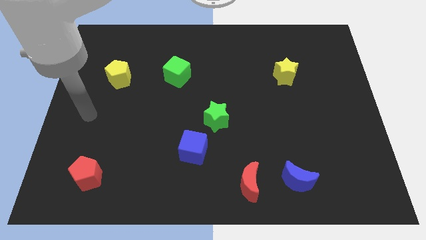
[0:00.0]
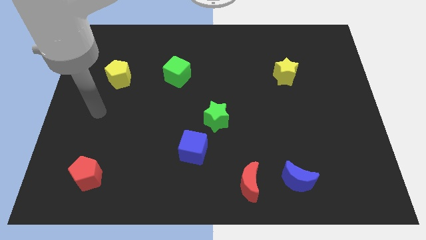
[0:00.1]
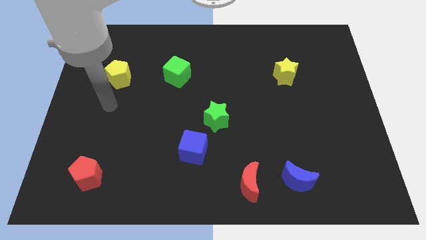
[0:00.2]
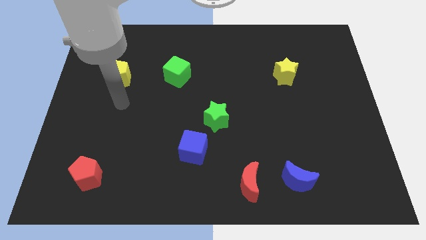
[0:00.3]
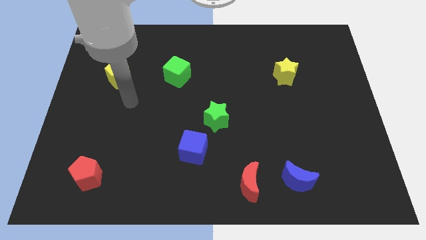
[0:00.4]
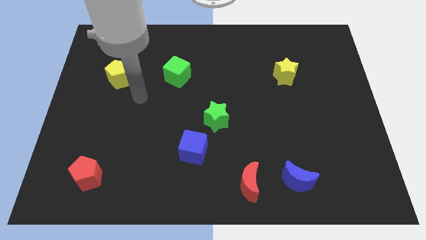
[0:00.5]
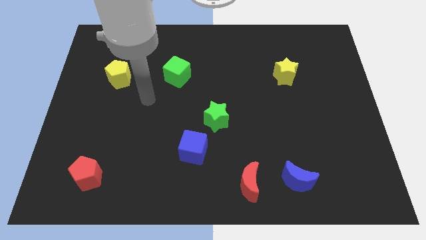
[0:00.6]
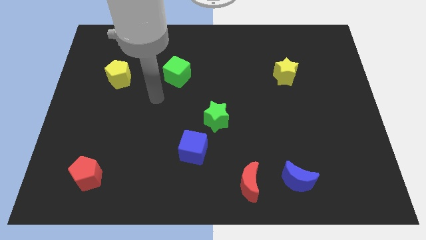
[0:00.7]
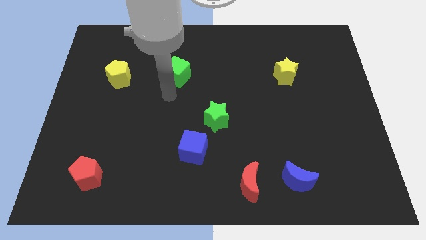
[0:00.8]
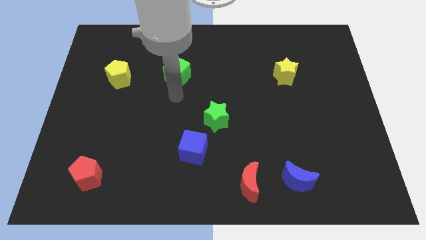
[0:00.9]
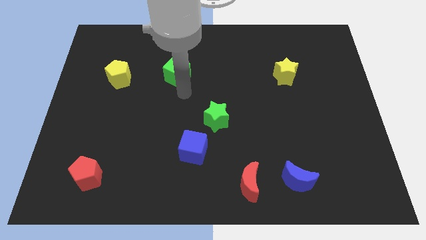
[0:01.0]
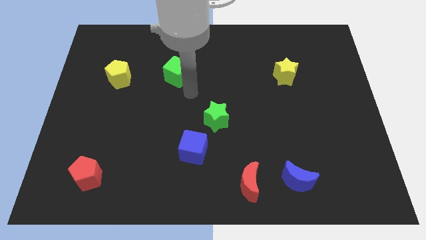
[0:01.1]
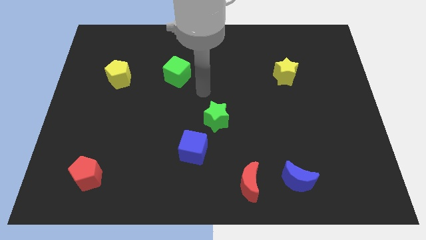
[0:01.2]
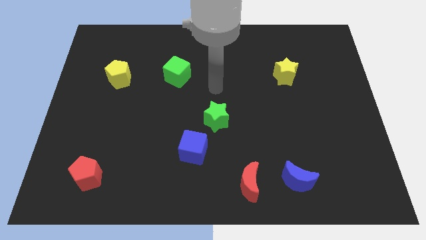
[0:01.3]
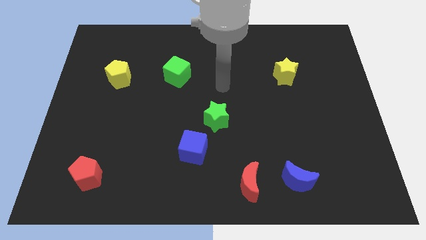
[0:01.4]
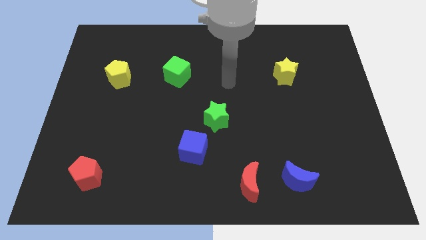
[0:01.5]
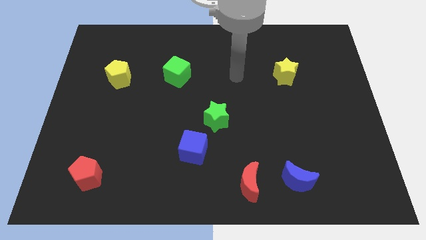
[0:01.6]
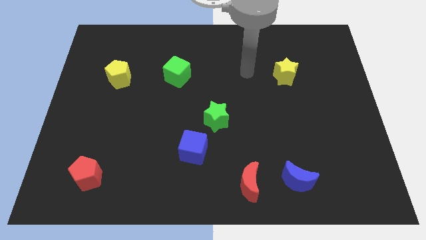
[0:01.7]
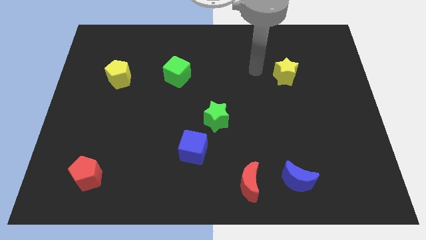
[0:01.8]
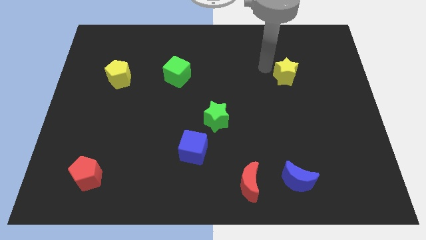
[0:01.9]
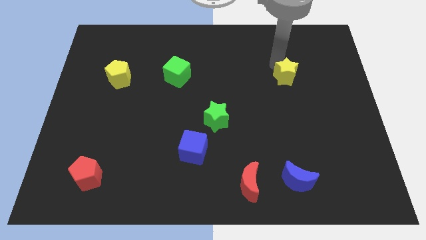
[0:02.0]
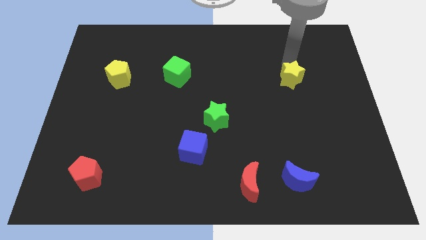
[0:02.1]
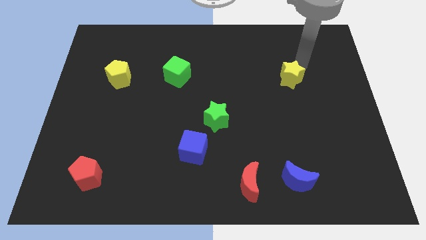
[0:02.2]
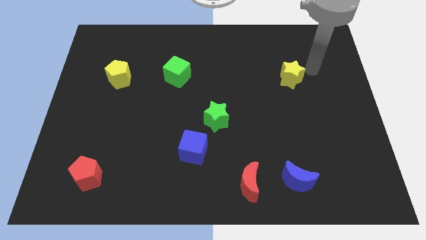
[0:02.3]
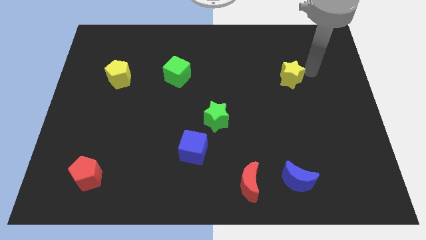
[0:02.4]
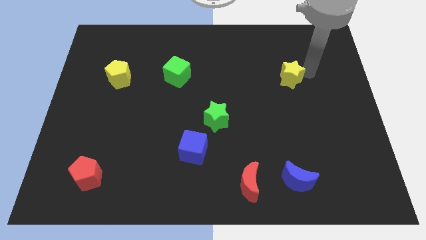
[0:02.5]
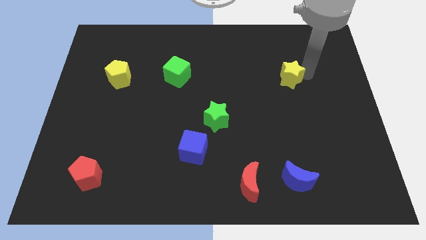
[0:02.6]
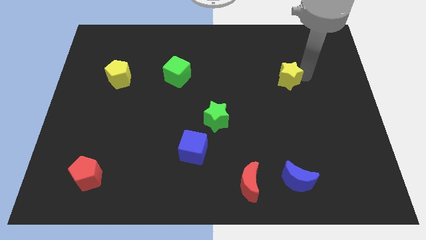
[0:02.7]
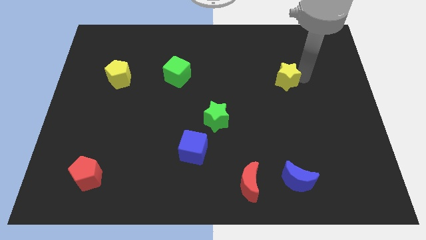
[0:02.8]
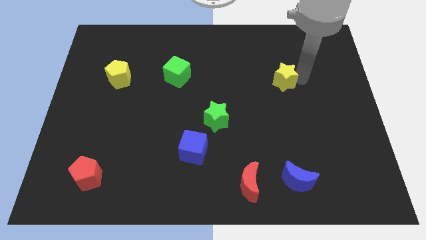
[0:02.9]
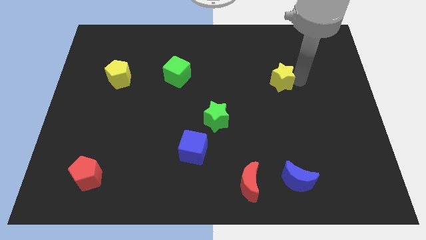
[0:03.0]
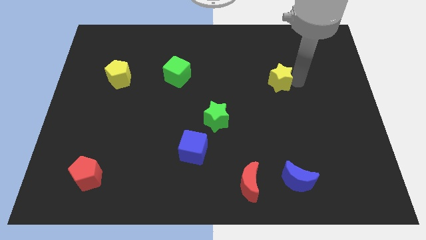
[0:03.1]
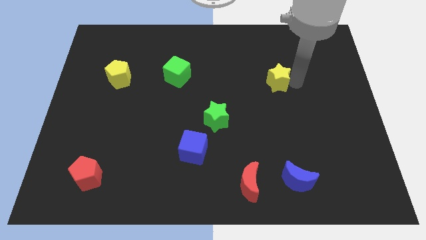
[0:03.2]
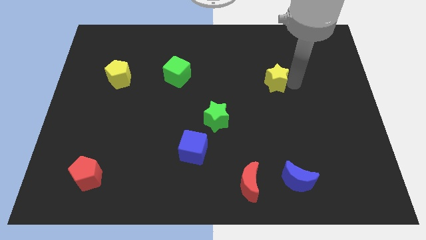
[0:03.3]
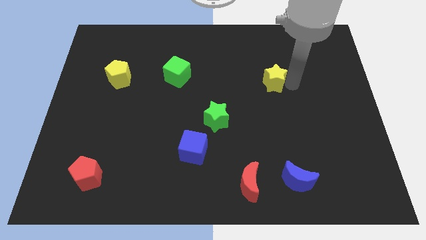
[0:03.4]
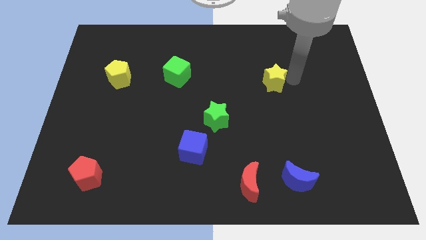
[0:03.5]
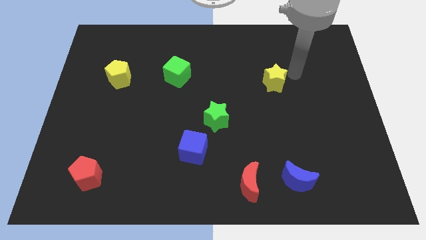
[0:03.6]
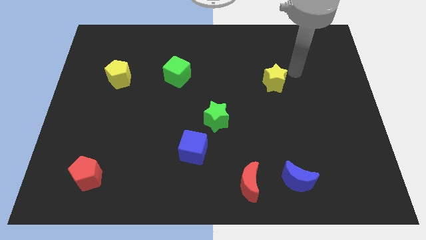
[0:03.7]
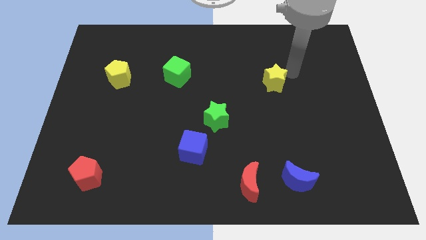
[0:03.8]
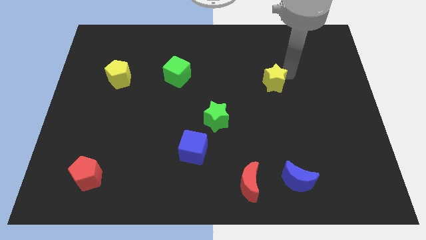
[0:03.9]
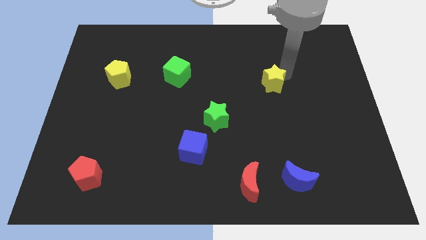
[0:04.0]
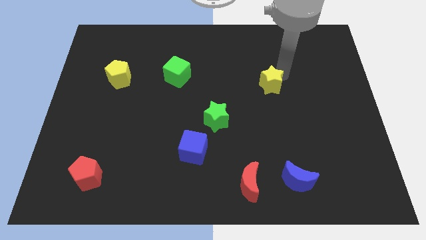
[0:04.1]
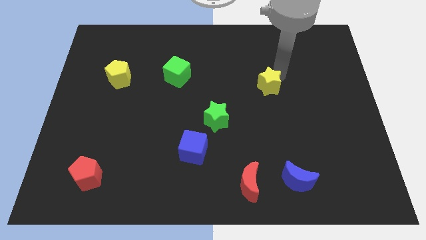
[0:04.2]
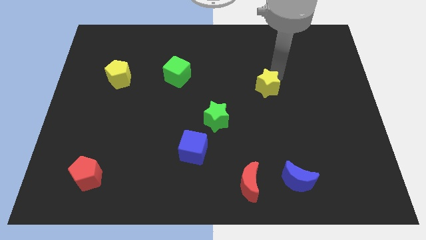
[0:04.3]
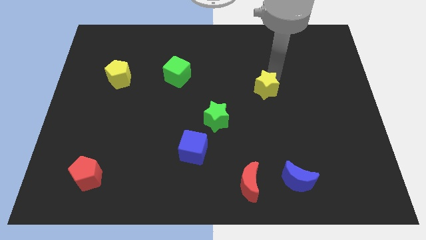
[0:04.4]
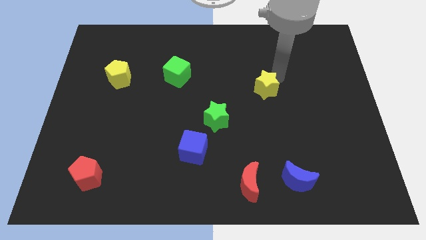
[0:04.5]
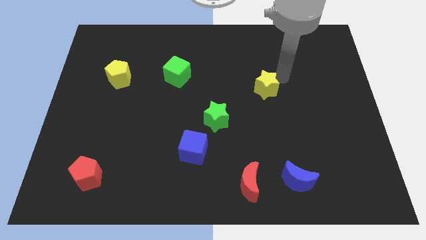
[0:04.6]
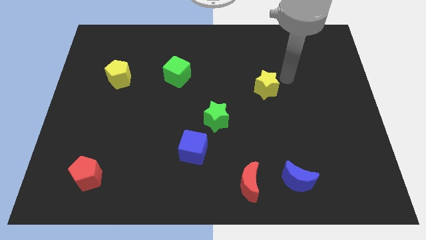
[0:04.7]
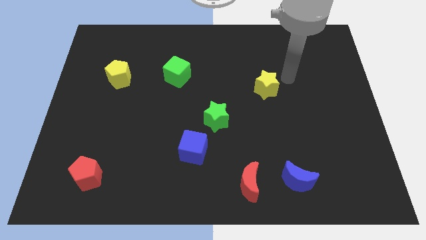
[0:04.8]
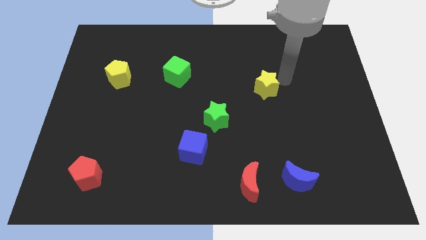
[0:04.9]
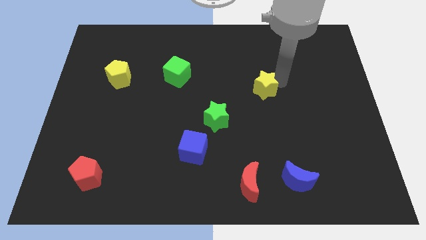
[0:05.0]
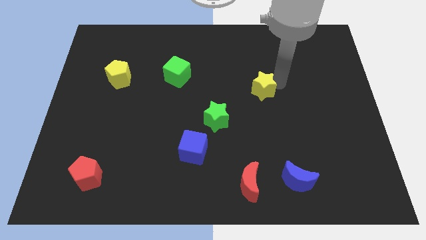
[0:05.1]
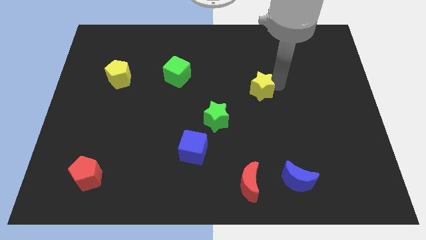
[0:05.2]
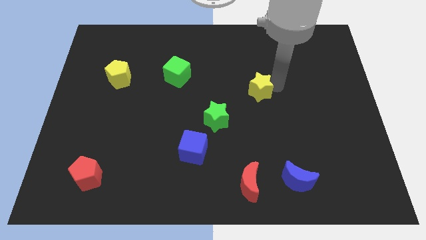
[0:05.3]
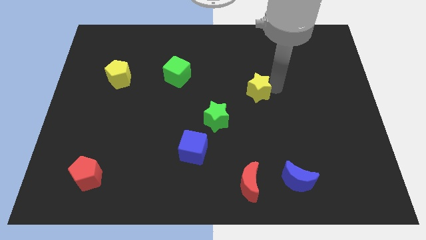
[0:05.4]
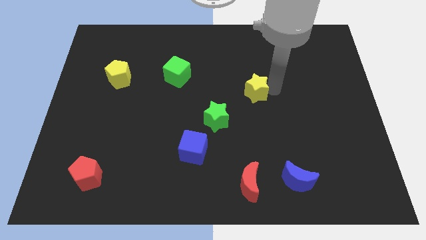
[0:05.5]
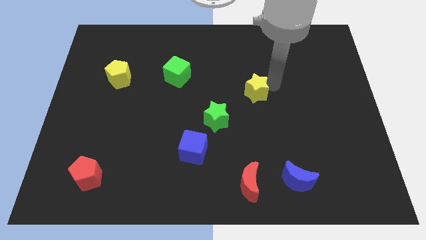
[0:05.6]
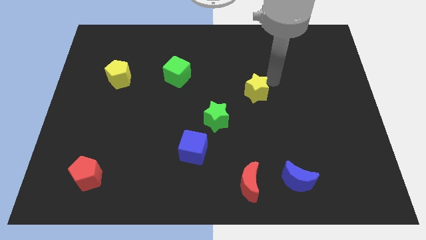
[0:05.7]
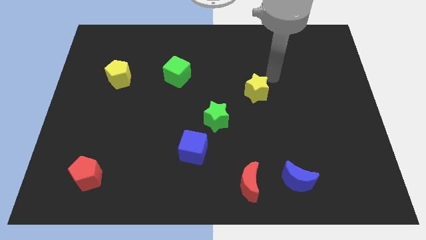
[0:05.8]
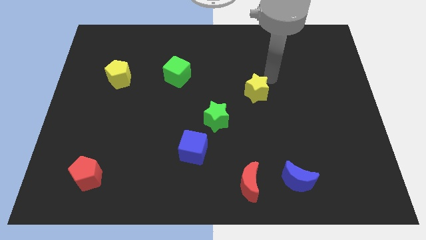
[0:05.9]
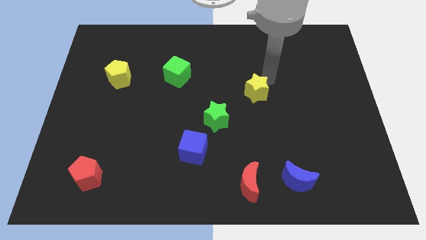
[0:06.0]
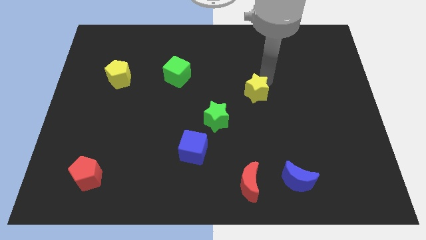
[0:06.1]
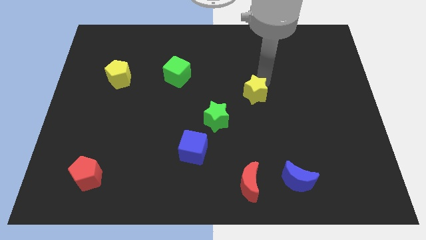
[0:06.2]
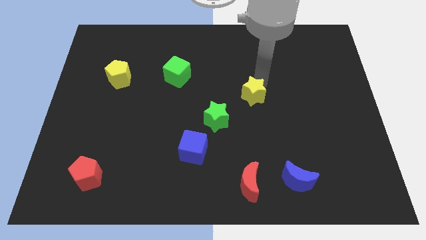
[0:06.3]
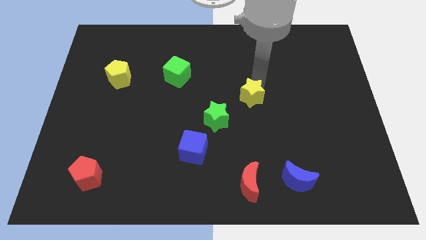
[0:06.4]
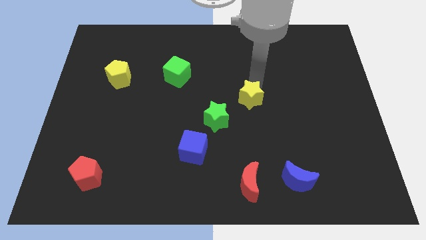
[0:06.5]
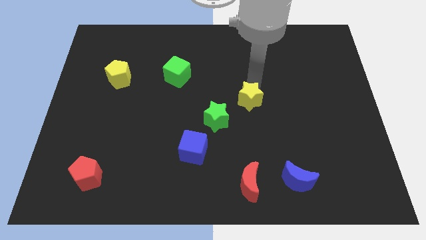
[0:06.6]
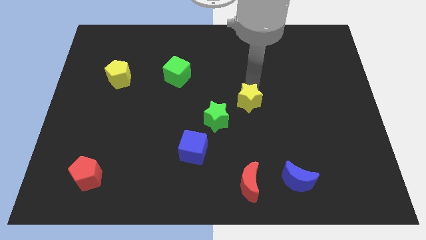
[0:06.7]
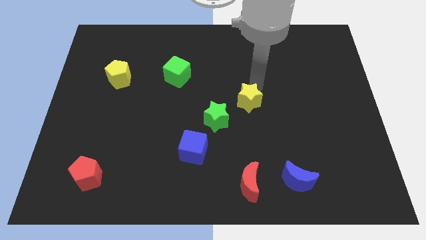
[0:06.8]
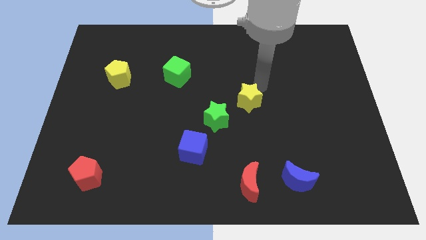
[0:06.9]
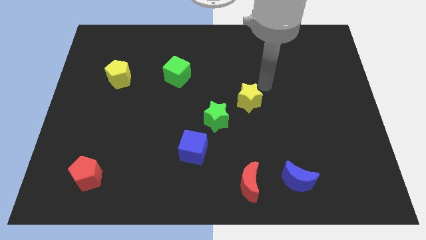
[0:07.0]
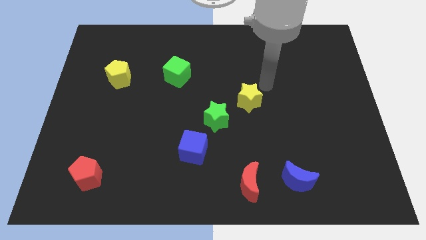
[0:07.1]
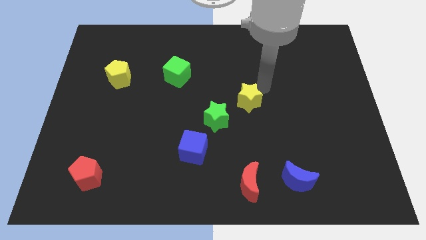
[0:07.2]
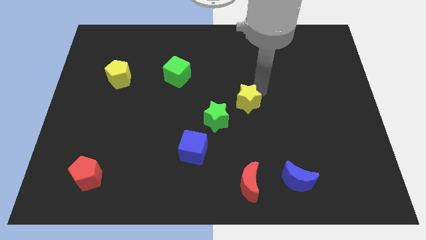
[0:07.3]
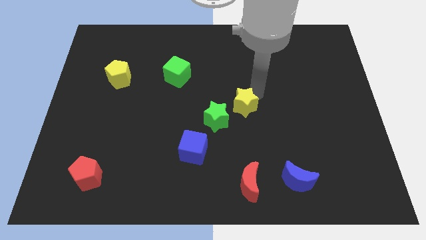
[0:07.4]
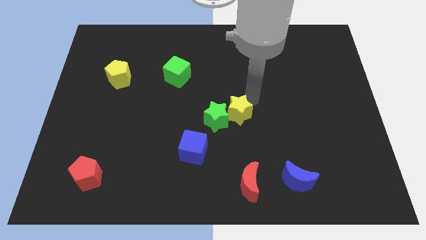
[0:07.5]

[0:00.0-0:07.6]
put the yellow star next to the green star
